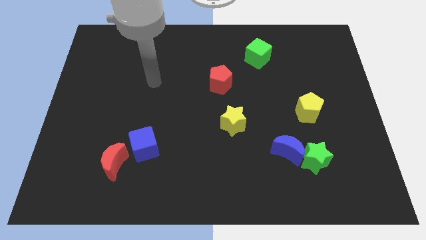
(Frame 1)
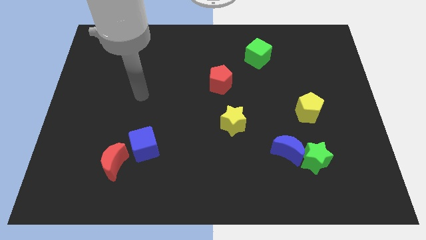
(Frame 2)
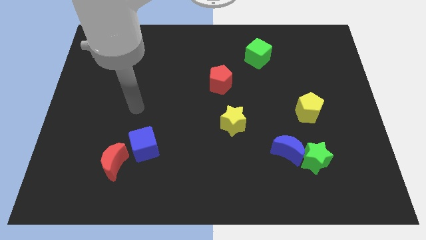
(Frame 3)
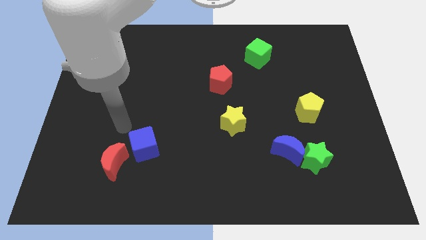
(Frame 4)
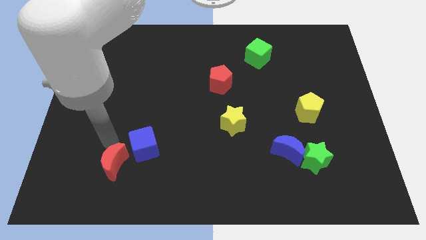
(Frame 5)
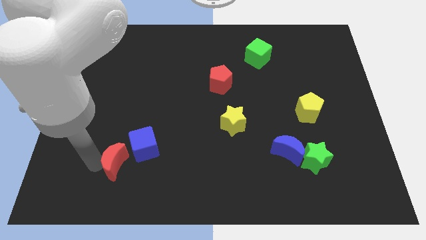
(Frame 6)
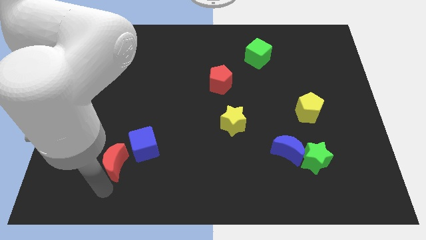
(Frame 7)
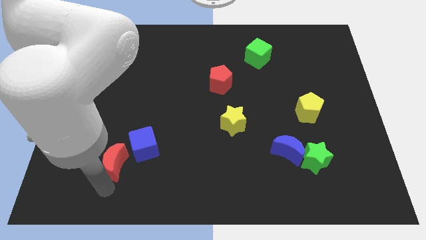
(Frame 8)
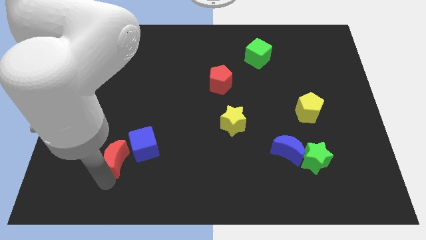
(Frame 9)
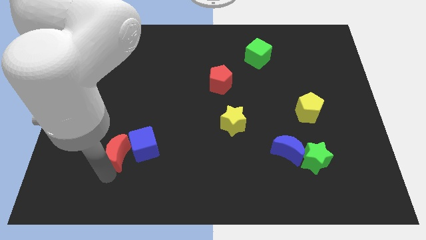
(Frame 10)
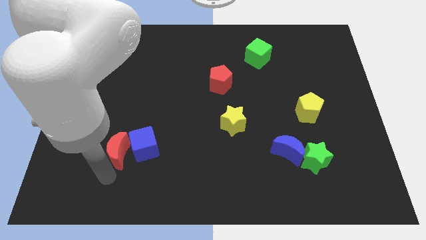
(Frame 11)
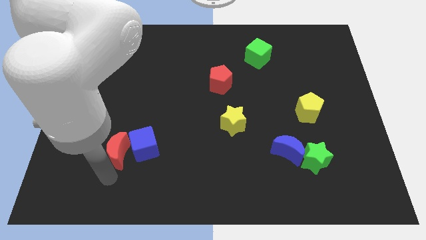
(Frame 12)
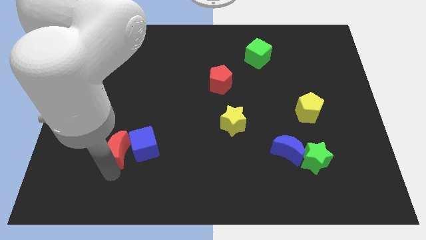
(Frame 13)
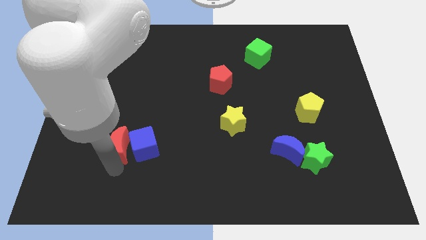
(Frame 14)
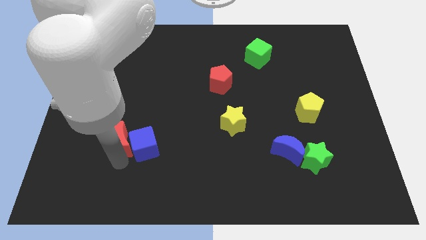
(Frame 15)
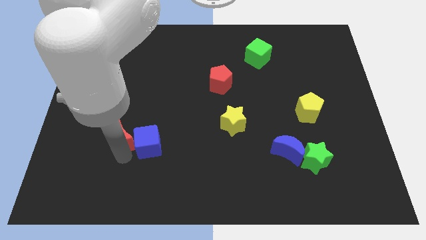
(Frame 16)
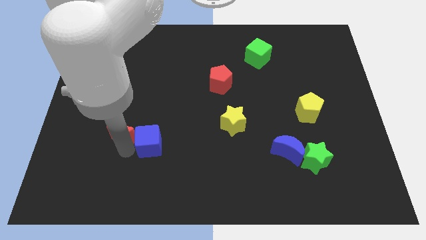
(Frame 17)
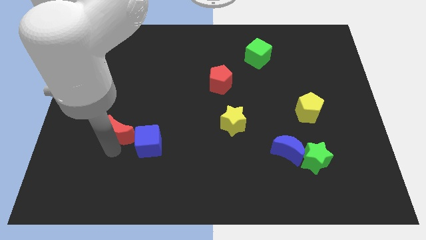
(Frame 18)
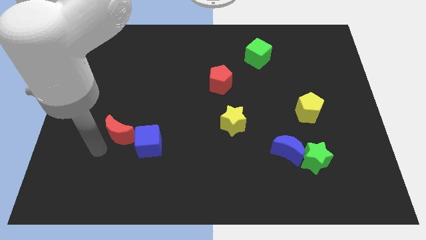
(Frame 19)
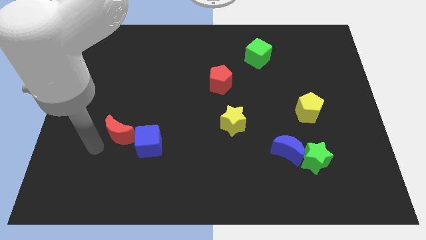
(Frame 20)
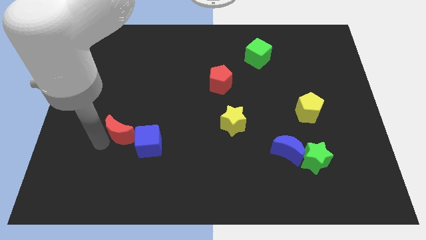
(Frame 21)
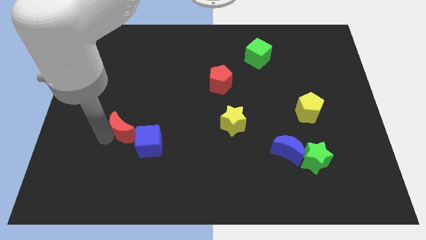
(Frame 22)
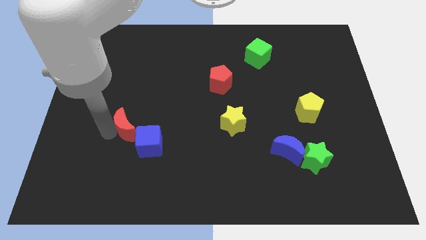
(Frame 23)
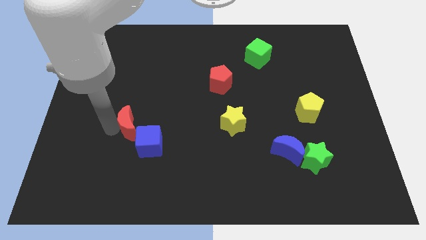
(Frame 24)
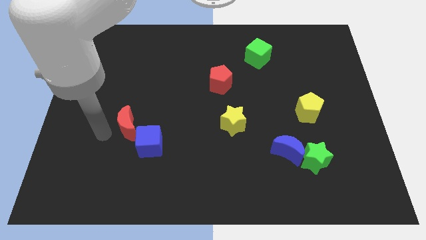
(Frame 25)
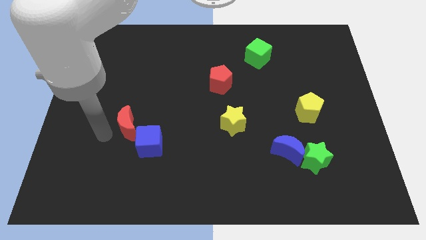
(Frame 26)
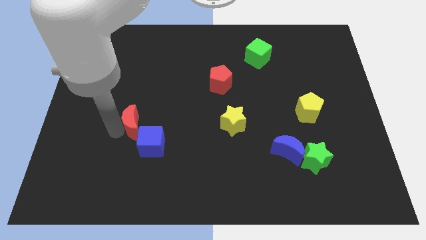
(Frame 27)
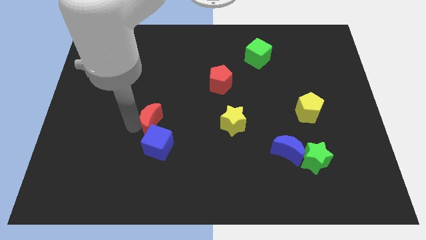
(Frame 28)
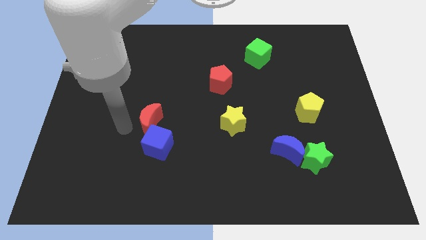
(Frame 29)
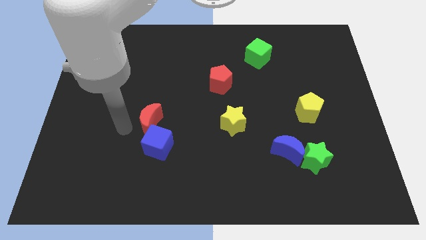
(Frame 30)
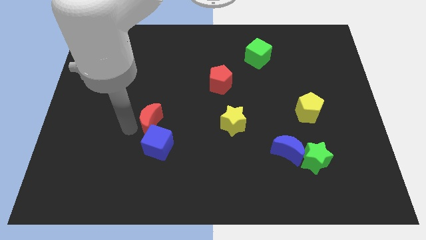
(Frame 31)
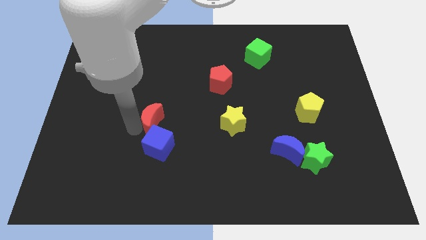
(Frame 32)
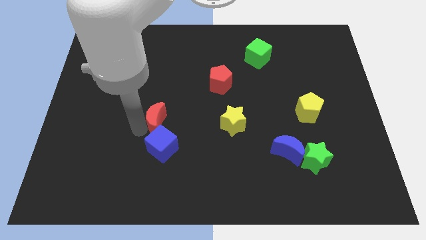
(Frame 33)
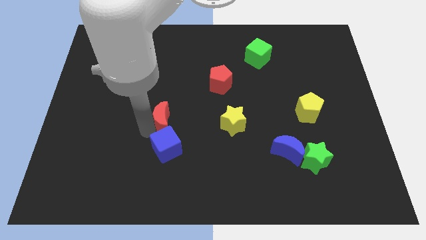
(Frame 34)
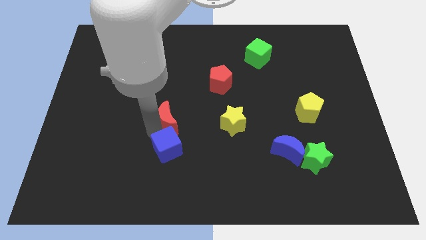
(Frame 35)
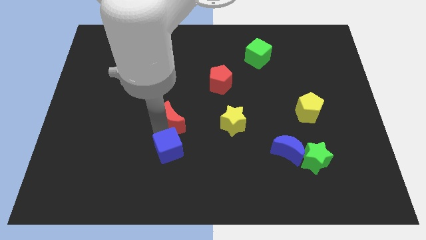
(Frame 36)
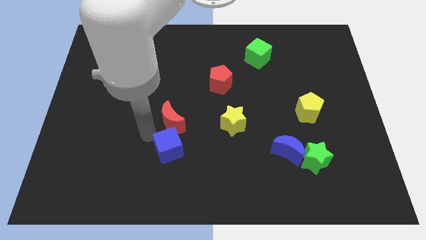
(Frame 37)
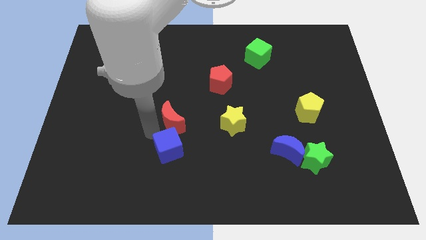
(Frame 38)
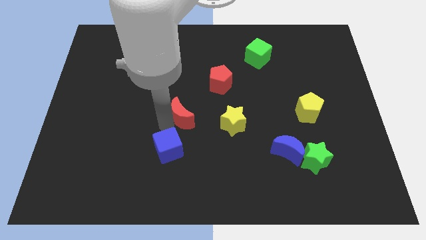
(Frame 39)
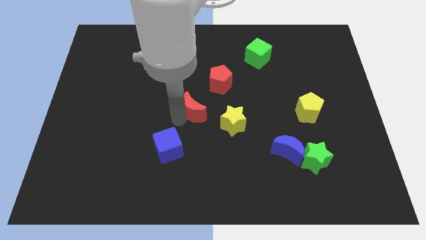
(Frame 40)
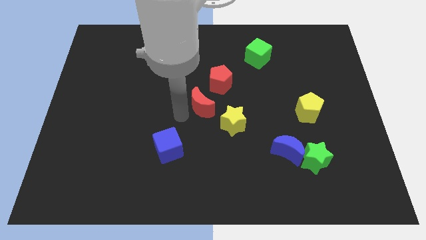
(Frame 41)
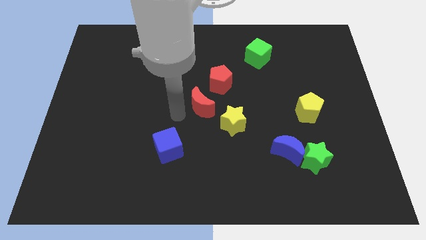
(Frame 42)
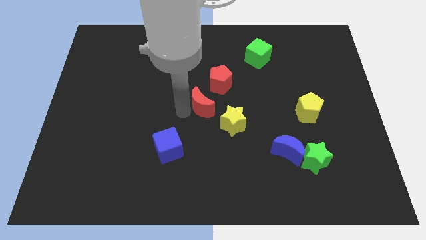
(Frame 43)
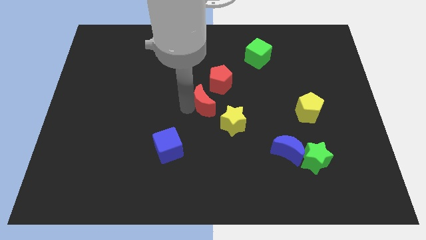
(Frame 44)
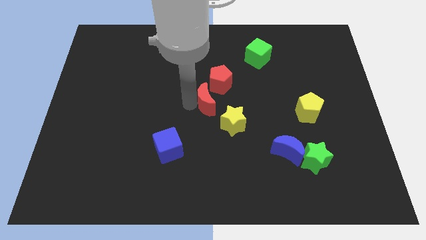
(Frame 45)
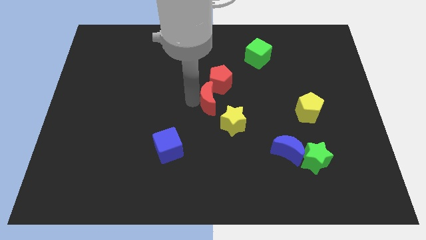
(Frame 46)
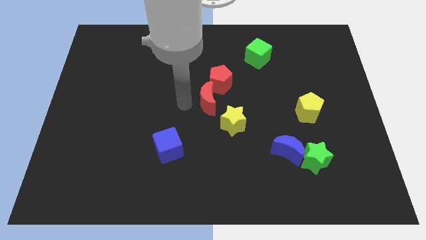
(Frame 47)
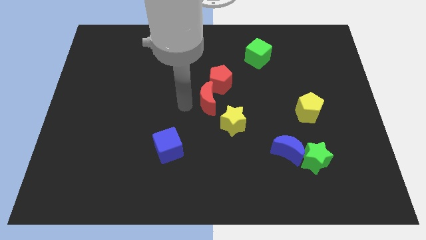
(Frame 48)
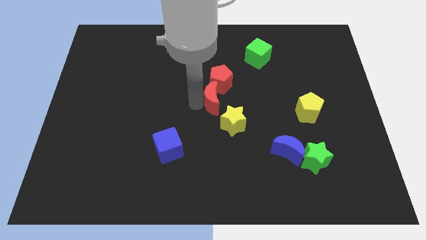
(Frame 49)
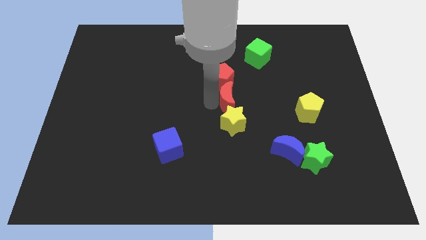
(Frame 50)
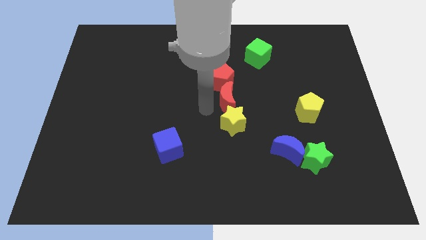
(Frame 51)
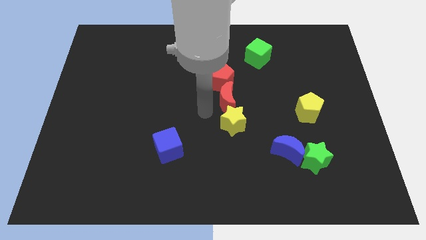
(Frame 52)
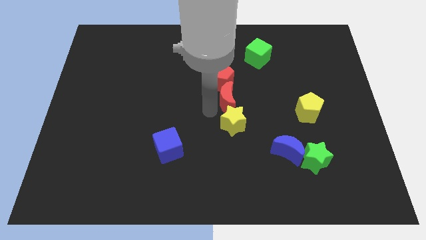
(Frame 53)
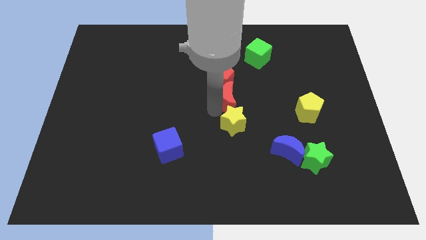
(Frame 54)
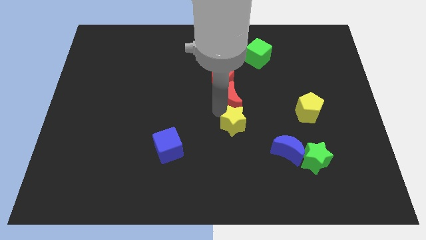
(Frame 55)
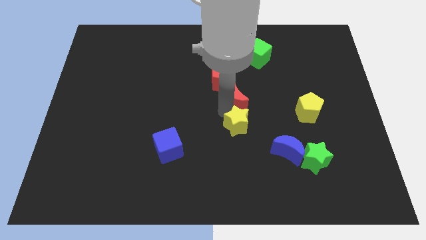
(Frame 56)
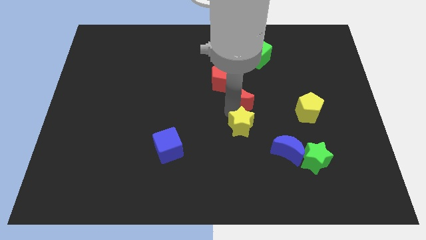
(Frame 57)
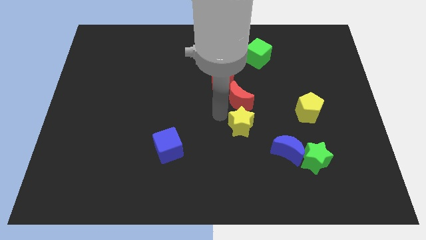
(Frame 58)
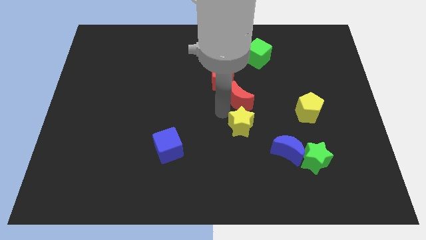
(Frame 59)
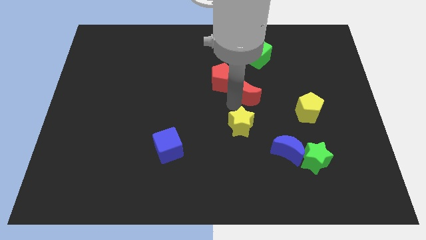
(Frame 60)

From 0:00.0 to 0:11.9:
slide the red moon to the bottom side of the green cube

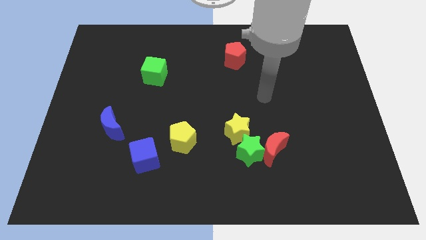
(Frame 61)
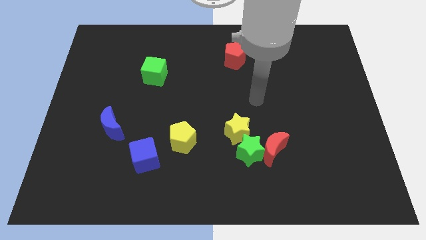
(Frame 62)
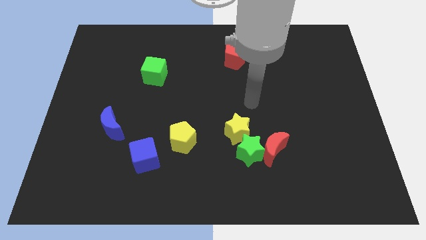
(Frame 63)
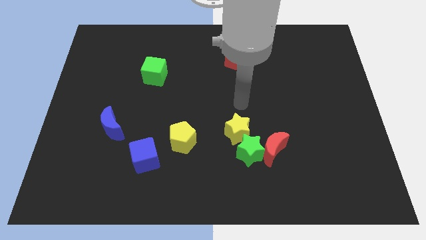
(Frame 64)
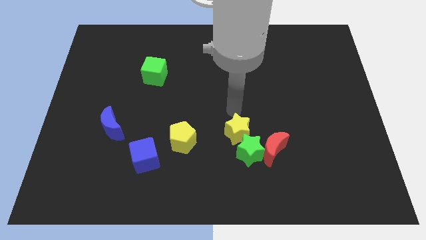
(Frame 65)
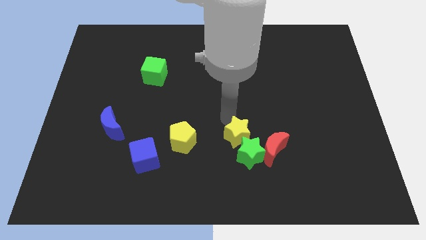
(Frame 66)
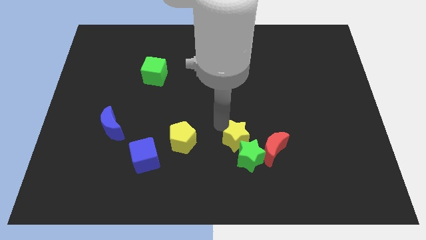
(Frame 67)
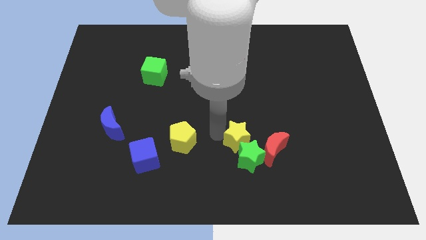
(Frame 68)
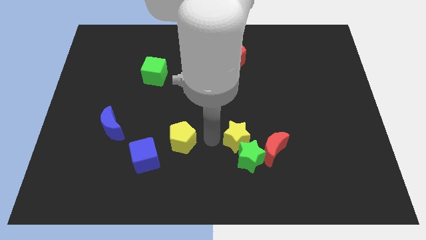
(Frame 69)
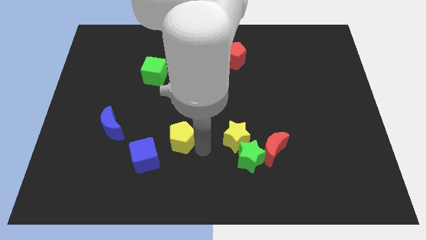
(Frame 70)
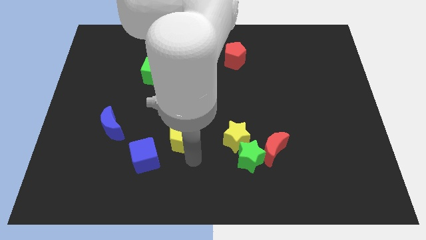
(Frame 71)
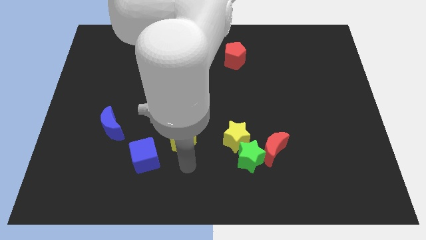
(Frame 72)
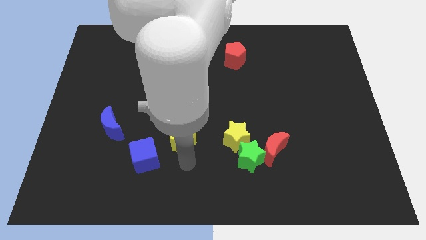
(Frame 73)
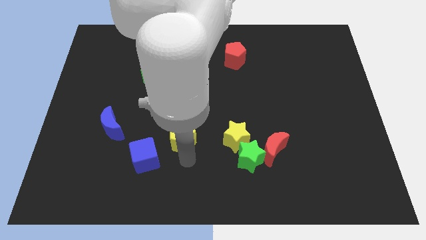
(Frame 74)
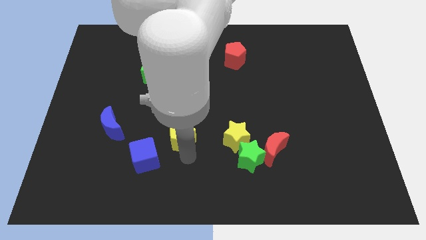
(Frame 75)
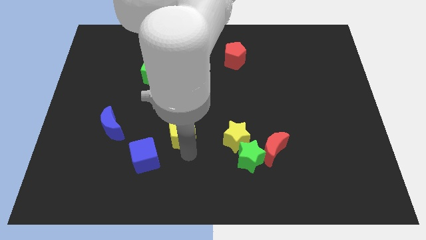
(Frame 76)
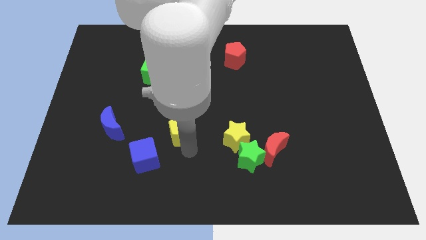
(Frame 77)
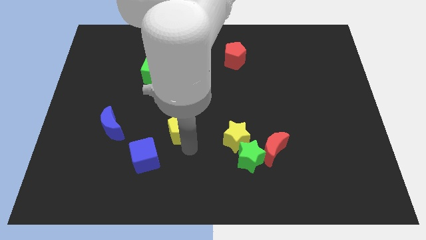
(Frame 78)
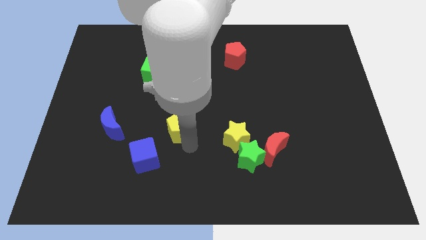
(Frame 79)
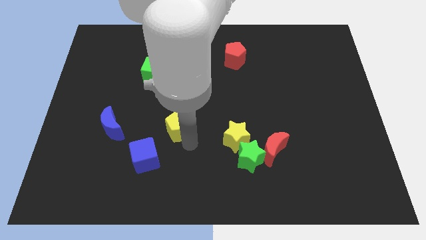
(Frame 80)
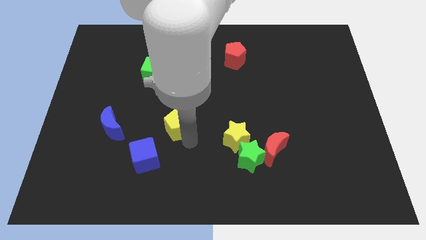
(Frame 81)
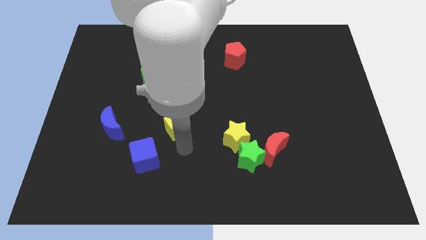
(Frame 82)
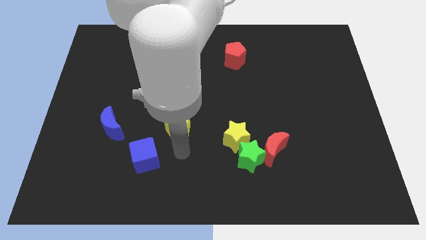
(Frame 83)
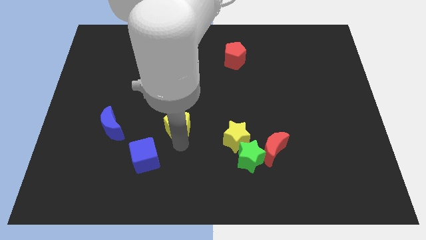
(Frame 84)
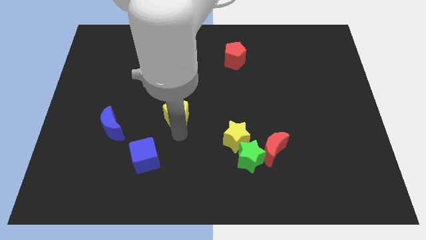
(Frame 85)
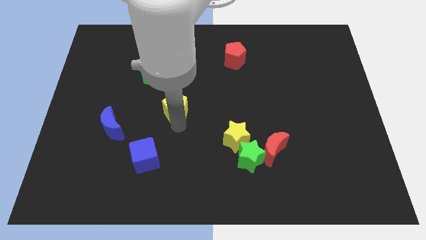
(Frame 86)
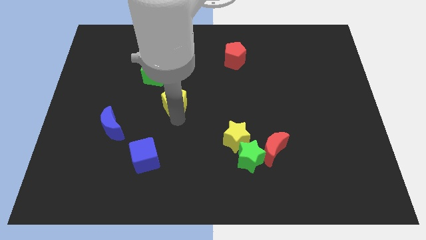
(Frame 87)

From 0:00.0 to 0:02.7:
slide the yellow pentagon to the bottom right side of the green cube
